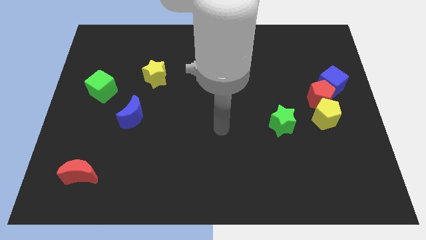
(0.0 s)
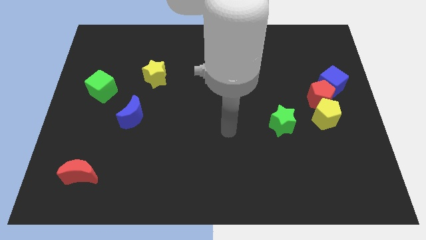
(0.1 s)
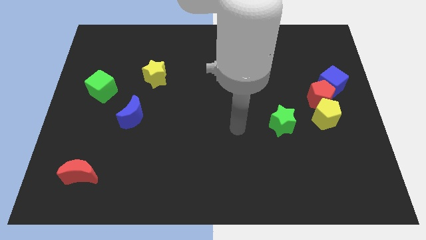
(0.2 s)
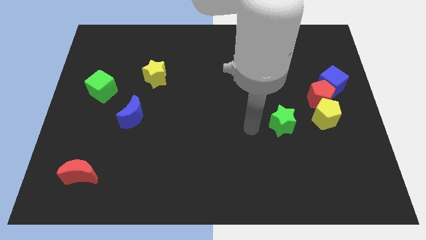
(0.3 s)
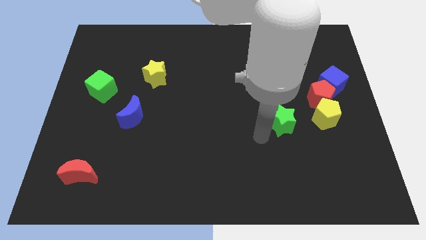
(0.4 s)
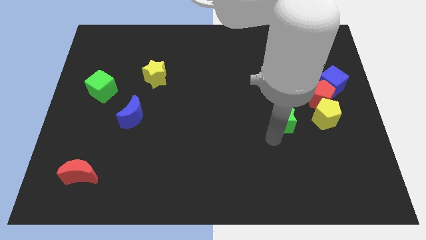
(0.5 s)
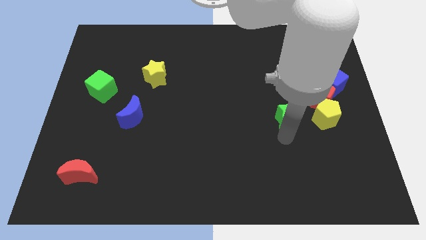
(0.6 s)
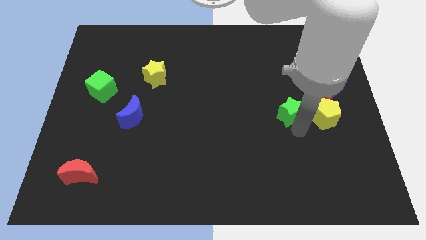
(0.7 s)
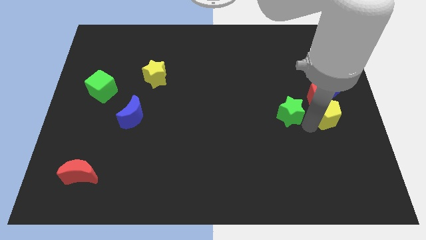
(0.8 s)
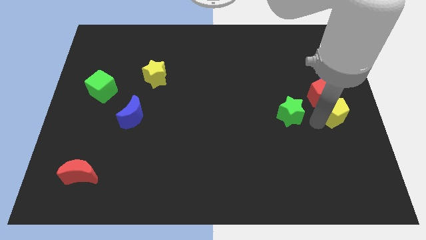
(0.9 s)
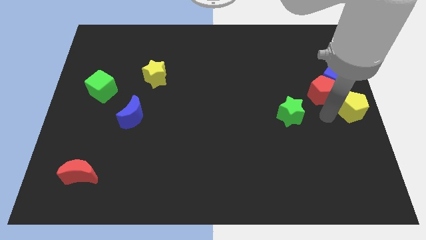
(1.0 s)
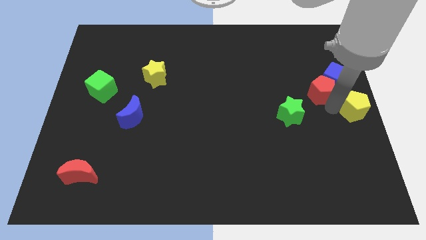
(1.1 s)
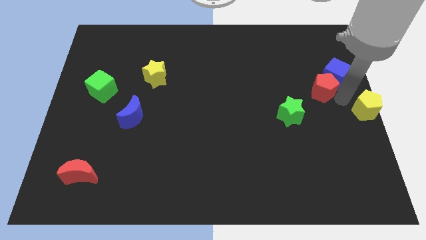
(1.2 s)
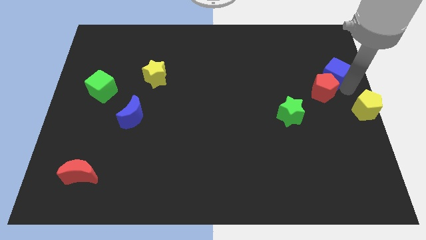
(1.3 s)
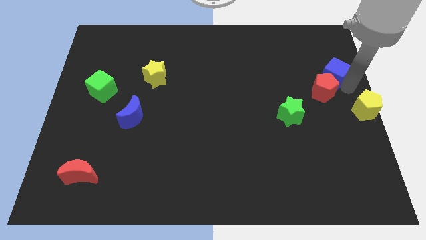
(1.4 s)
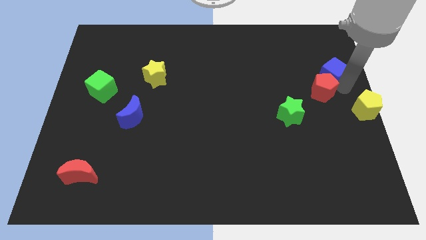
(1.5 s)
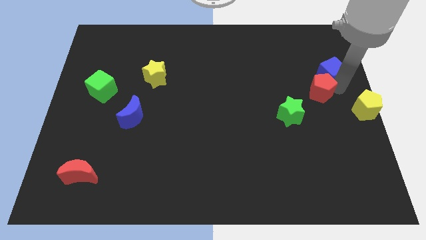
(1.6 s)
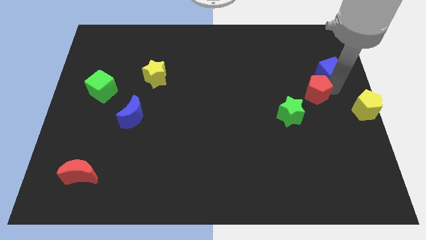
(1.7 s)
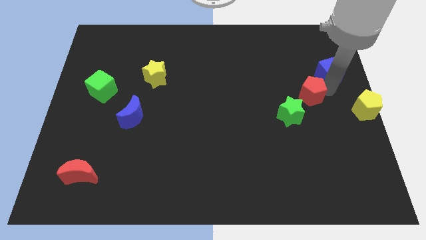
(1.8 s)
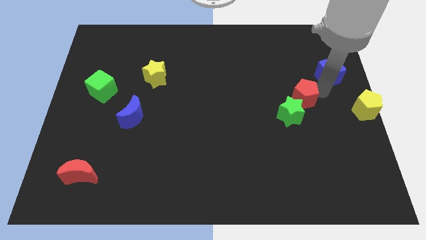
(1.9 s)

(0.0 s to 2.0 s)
separate the red pentagon from the blue cube and yellow pentagon

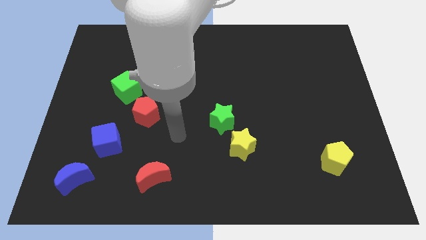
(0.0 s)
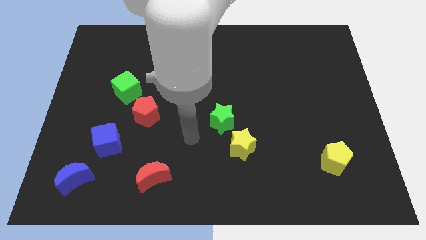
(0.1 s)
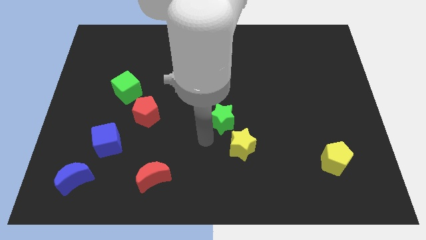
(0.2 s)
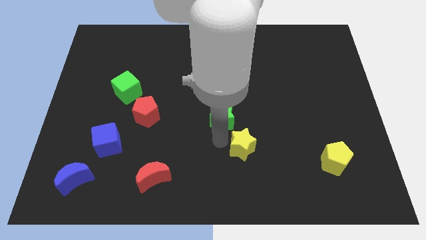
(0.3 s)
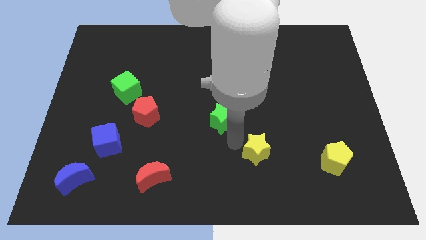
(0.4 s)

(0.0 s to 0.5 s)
separate the green star from the yellow star

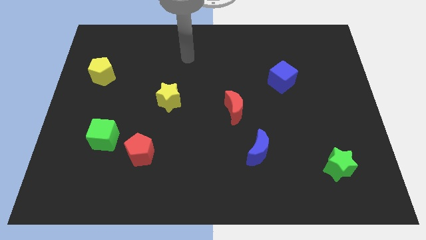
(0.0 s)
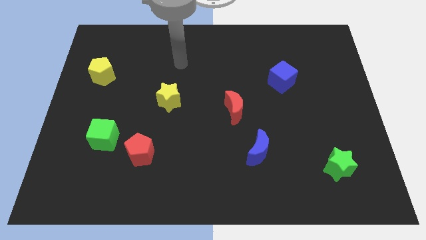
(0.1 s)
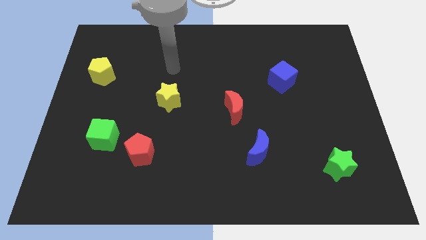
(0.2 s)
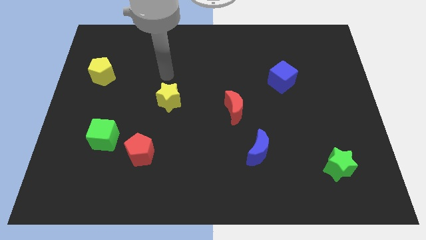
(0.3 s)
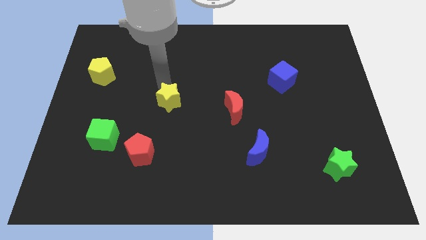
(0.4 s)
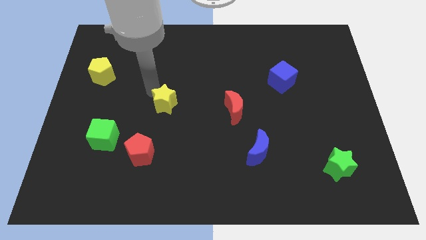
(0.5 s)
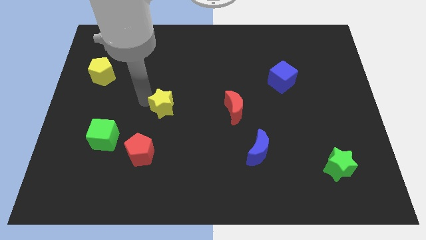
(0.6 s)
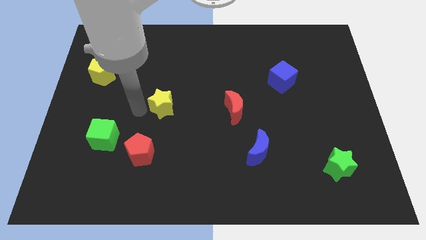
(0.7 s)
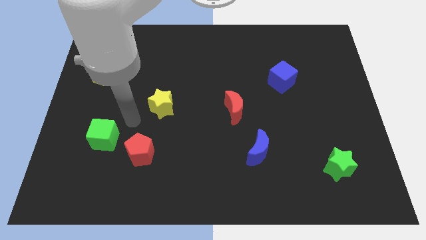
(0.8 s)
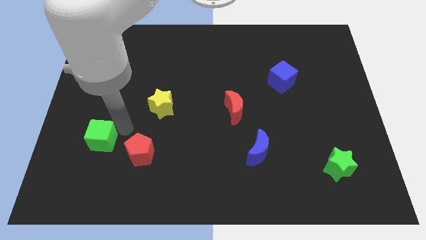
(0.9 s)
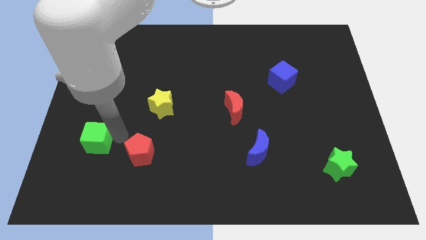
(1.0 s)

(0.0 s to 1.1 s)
move the red pentagon away from the green cube

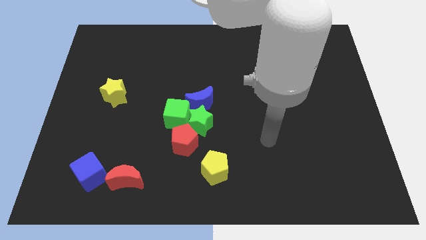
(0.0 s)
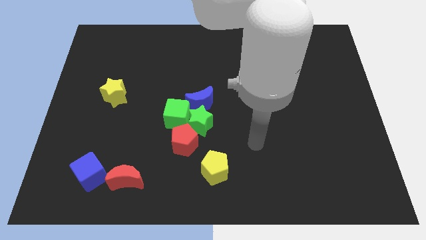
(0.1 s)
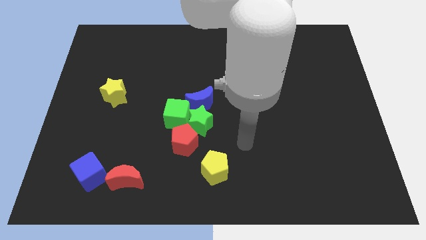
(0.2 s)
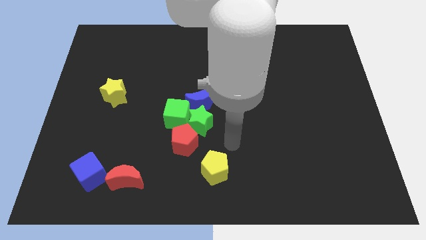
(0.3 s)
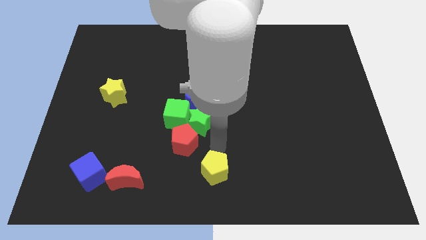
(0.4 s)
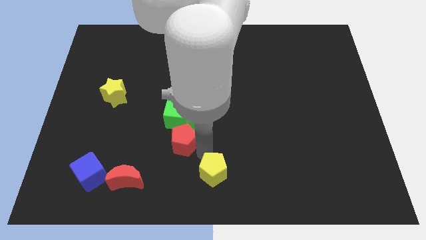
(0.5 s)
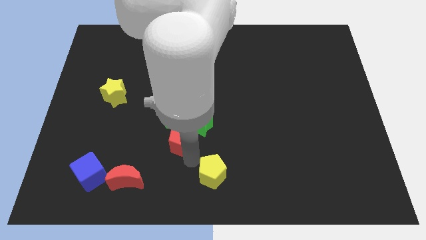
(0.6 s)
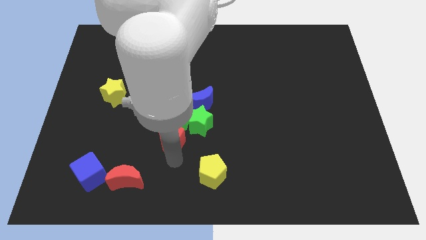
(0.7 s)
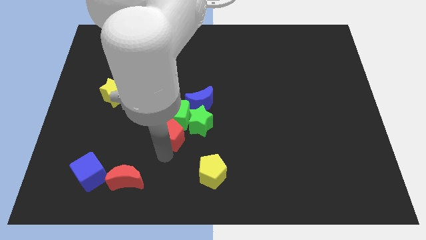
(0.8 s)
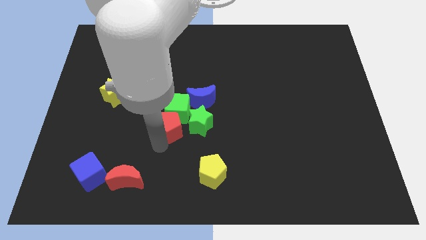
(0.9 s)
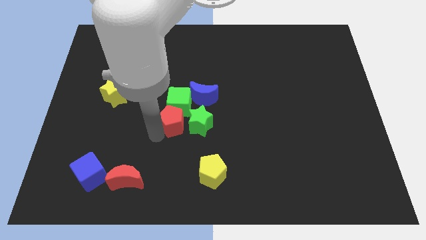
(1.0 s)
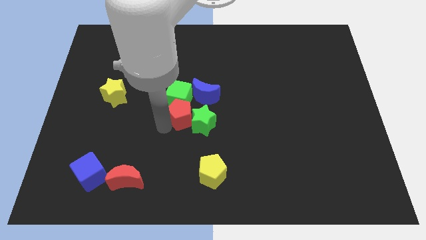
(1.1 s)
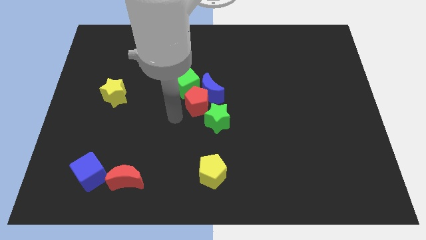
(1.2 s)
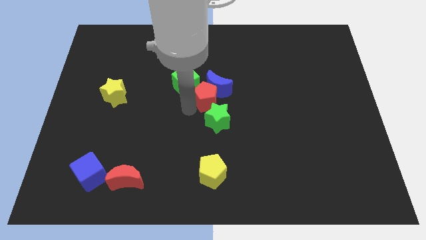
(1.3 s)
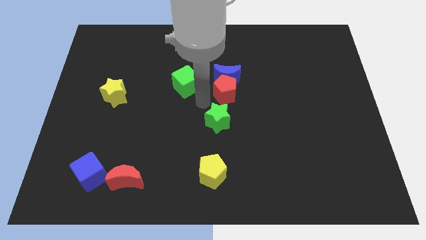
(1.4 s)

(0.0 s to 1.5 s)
move the green star away from the clump

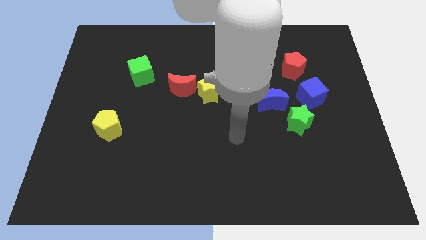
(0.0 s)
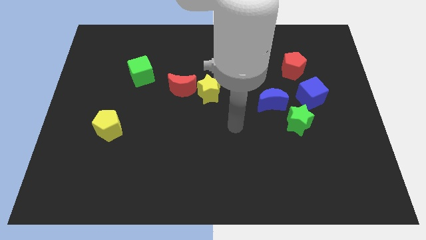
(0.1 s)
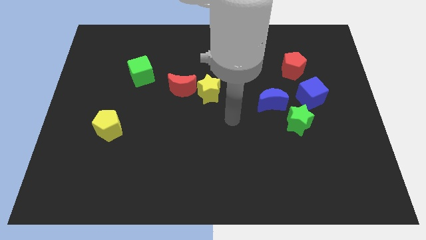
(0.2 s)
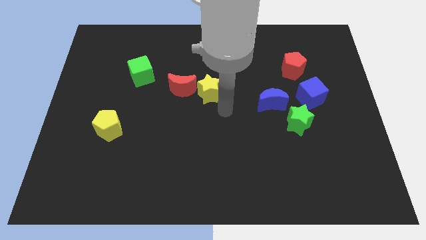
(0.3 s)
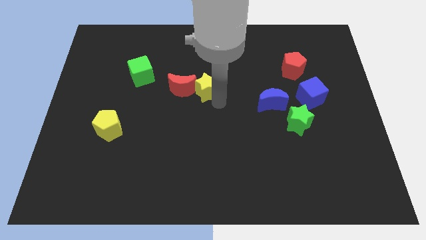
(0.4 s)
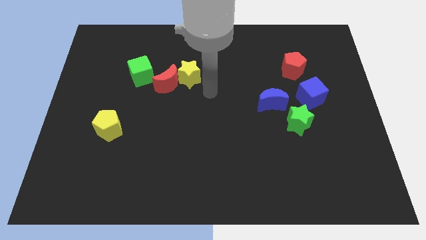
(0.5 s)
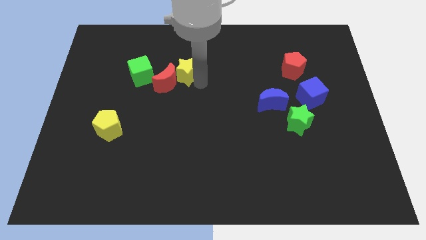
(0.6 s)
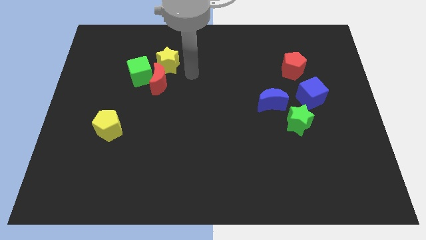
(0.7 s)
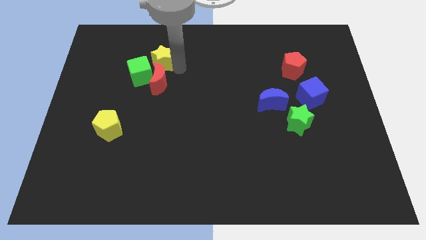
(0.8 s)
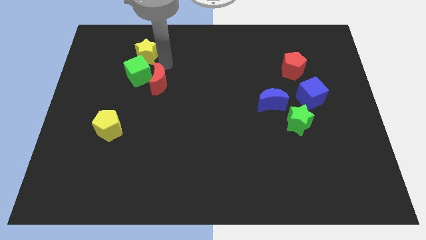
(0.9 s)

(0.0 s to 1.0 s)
separate the red moon from the yellow star

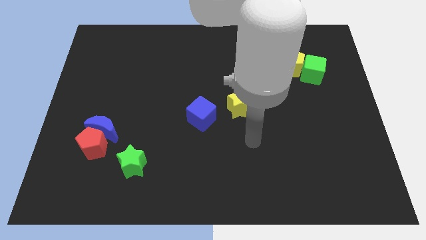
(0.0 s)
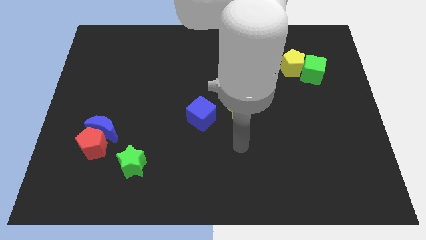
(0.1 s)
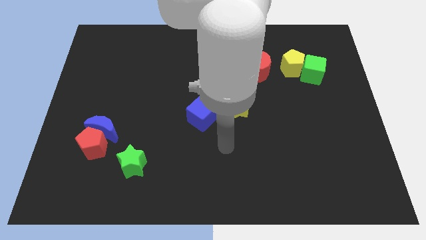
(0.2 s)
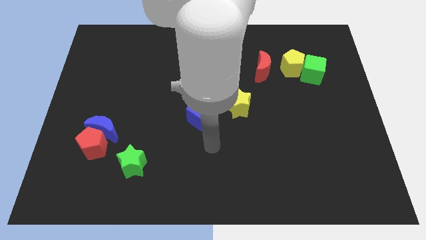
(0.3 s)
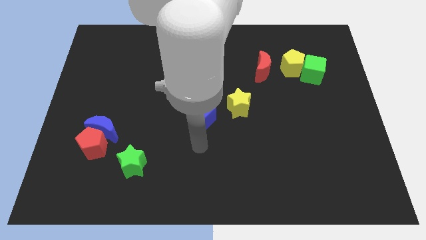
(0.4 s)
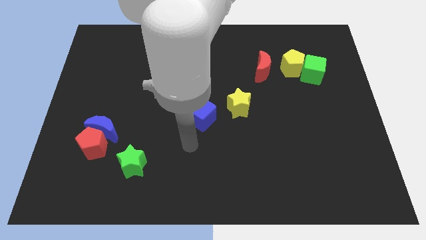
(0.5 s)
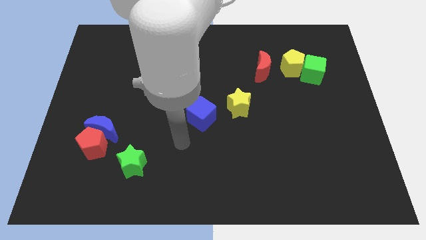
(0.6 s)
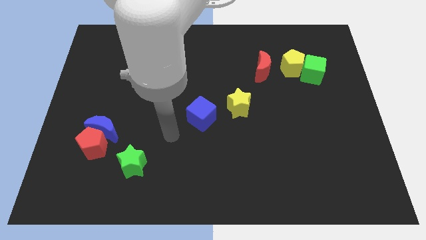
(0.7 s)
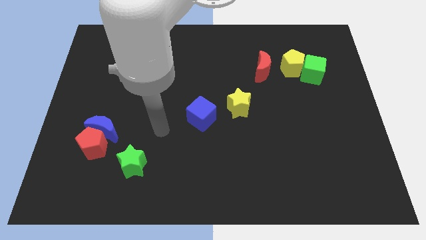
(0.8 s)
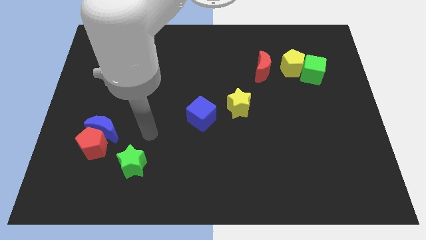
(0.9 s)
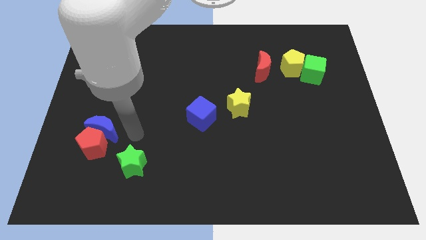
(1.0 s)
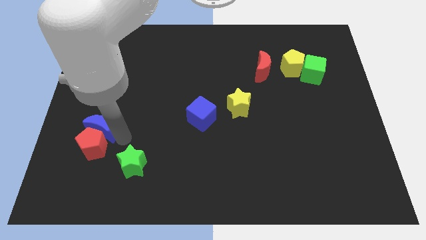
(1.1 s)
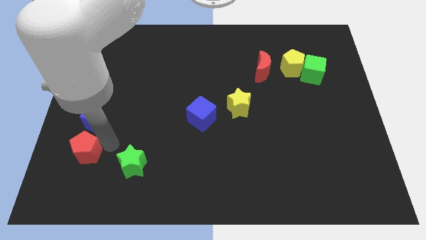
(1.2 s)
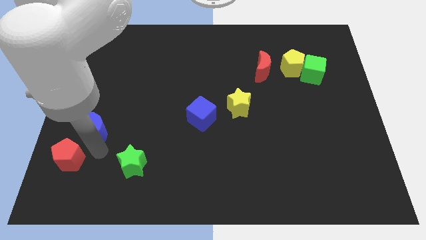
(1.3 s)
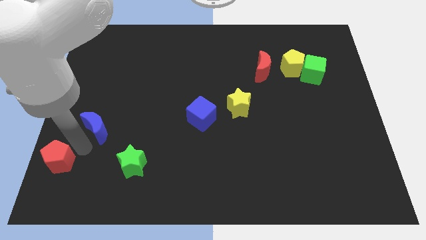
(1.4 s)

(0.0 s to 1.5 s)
pull the blue moon apart from the red pentagon

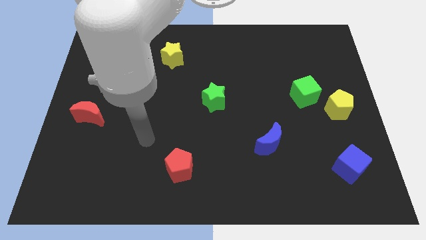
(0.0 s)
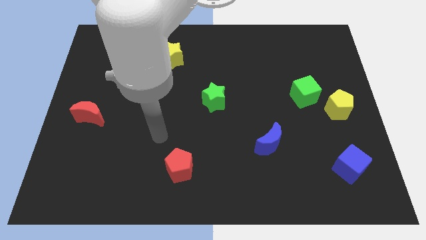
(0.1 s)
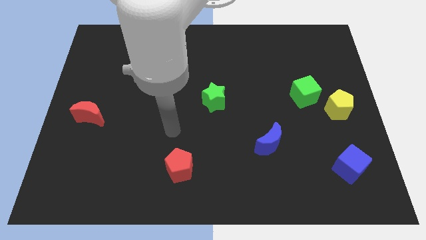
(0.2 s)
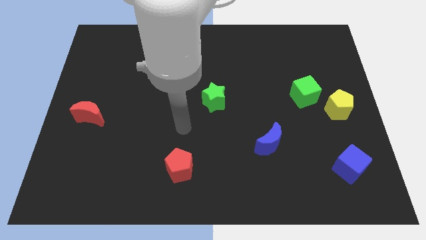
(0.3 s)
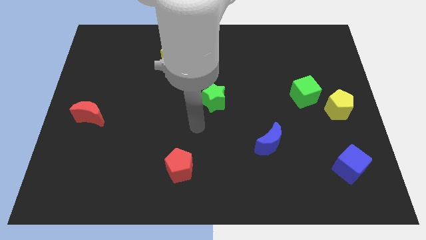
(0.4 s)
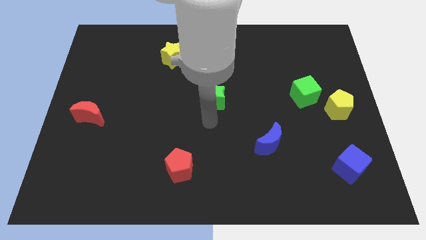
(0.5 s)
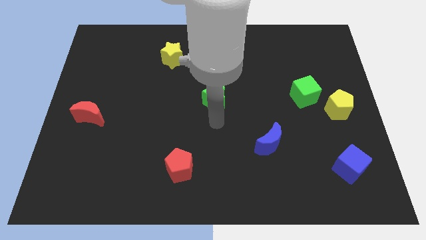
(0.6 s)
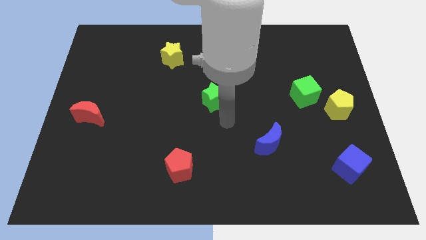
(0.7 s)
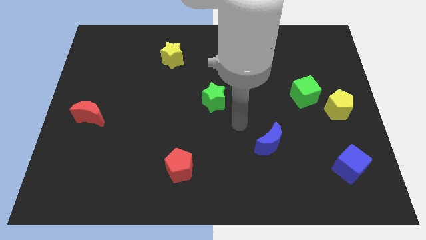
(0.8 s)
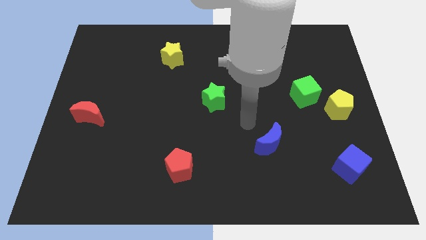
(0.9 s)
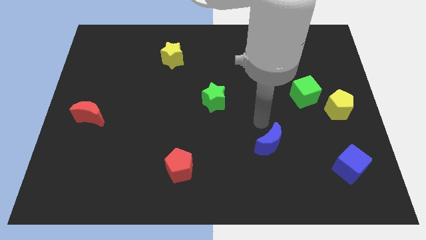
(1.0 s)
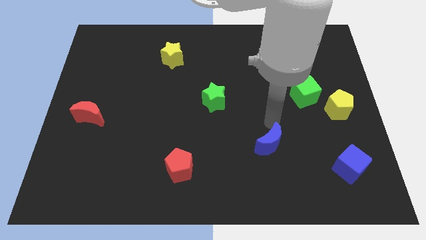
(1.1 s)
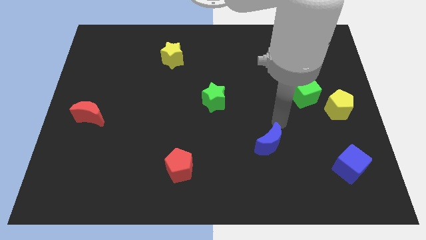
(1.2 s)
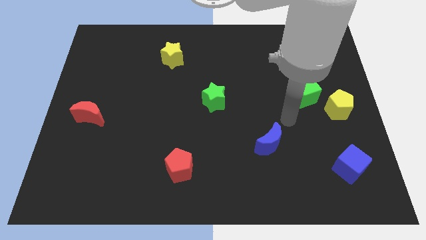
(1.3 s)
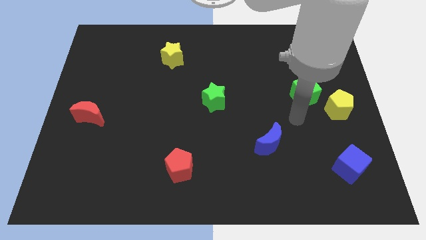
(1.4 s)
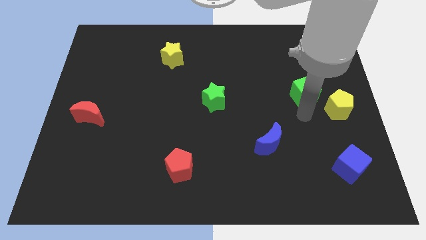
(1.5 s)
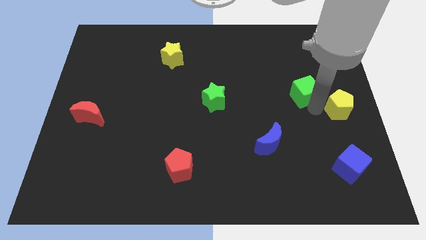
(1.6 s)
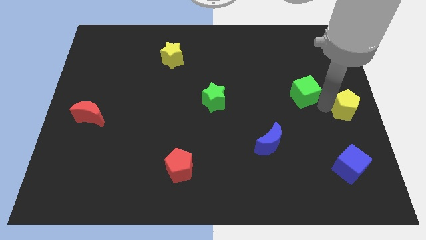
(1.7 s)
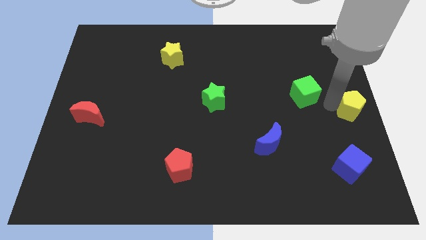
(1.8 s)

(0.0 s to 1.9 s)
pull the green cube apart from the yellow pentagon

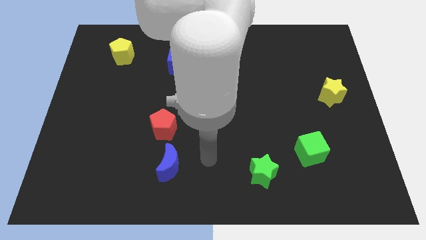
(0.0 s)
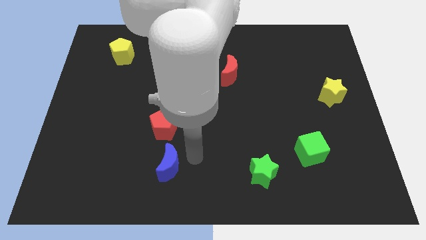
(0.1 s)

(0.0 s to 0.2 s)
move the red pentagon away from the blue moon
